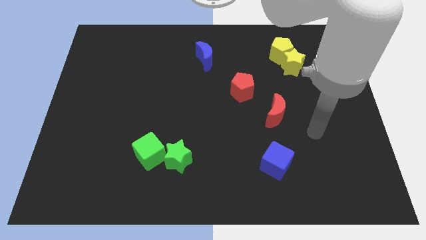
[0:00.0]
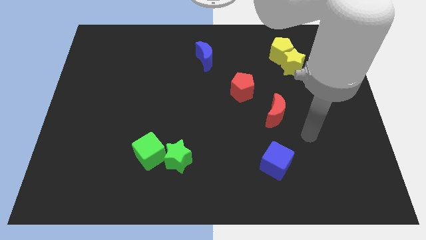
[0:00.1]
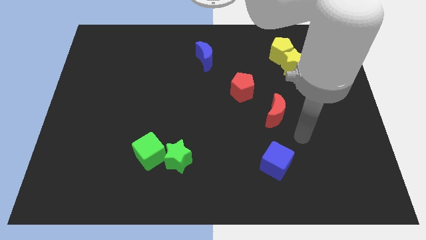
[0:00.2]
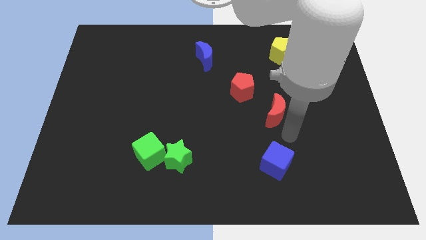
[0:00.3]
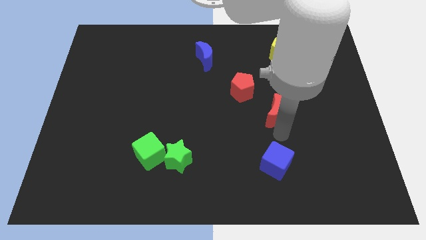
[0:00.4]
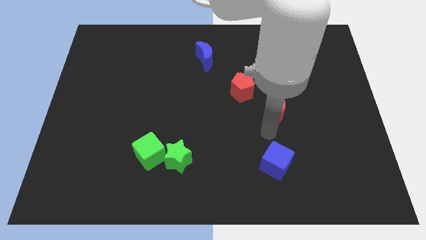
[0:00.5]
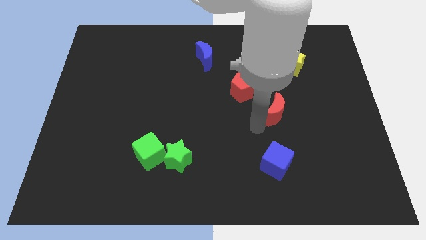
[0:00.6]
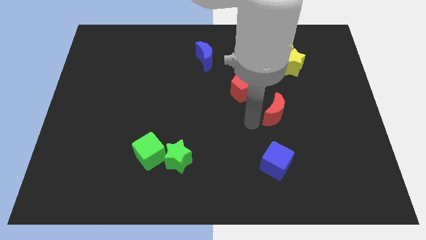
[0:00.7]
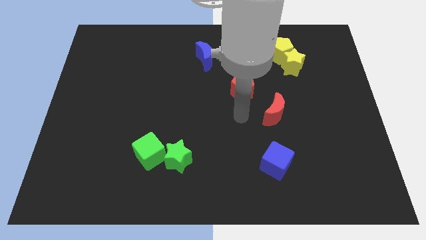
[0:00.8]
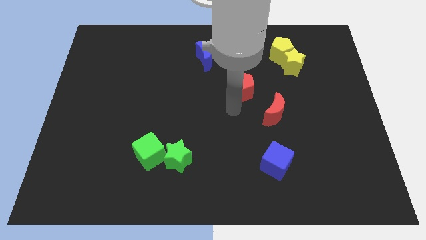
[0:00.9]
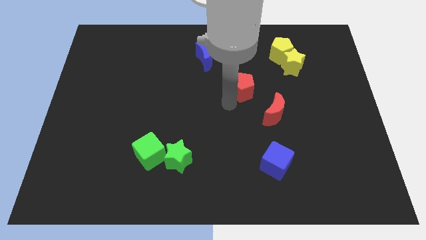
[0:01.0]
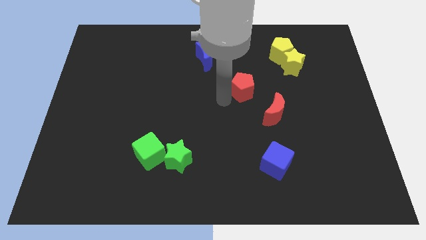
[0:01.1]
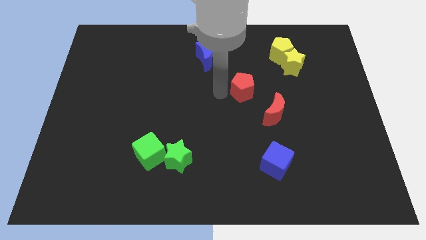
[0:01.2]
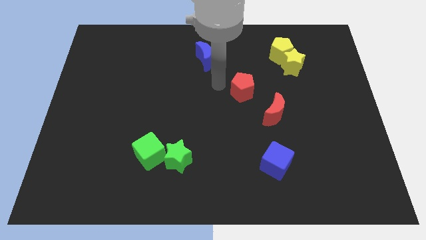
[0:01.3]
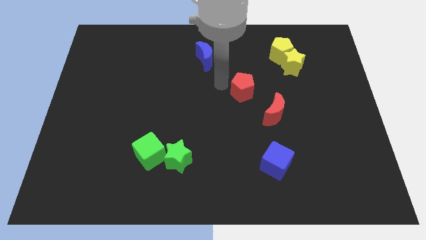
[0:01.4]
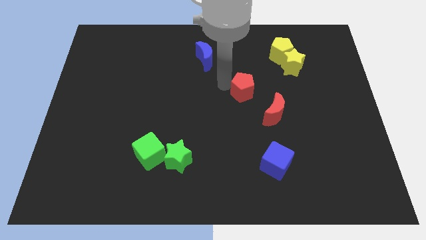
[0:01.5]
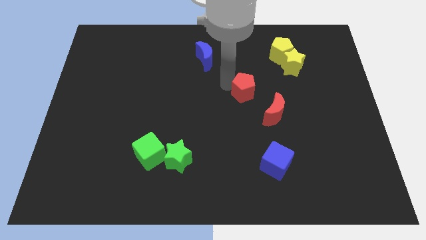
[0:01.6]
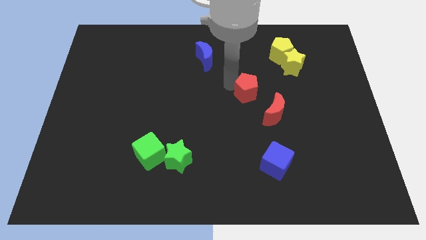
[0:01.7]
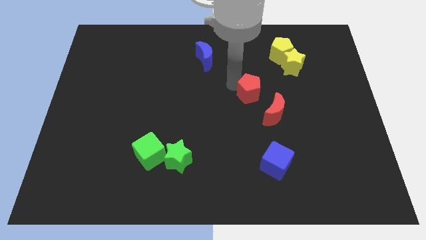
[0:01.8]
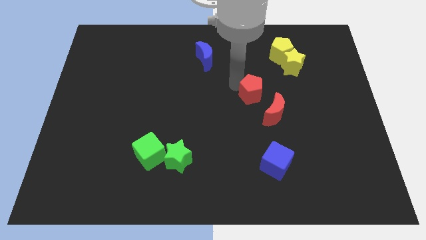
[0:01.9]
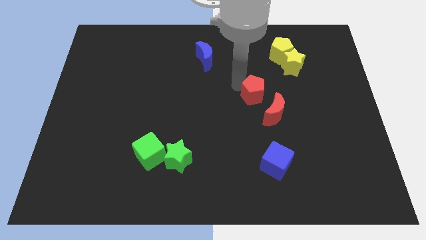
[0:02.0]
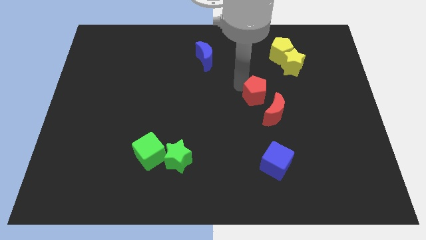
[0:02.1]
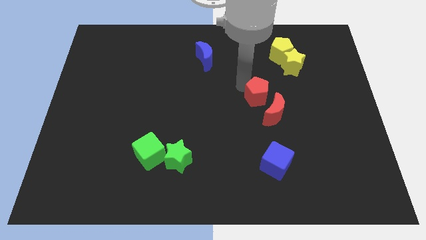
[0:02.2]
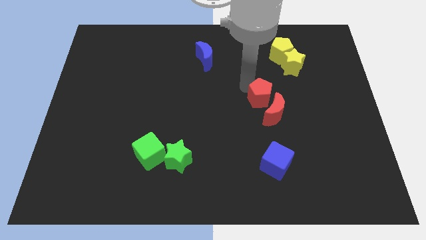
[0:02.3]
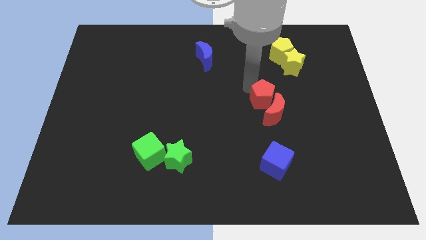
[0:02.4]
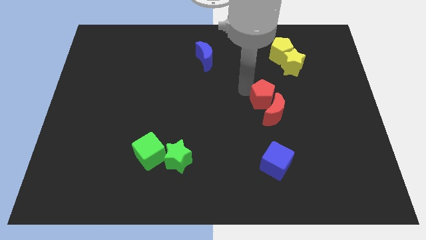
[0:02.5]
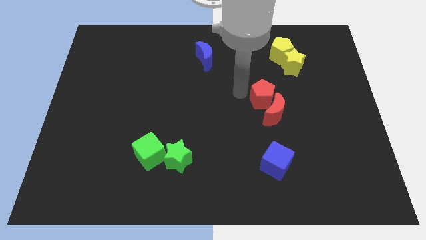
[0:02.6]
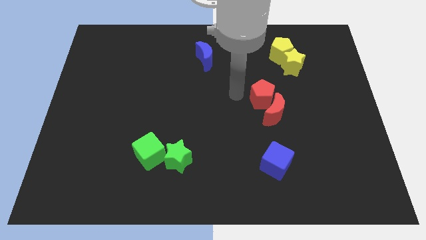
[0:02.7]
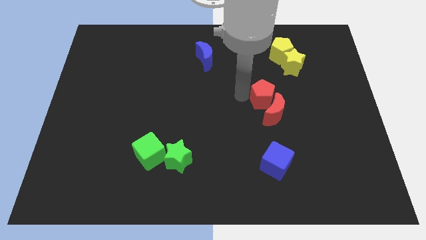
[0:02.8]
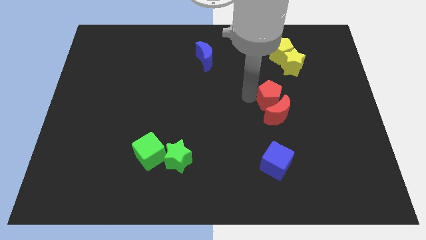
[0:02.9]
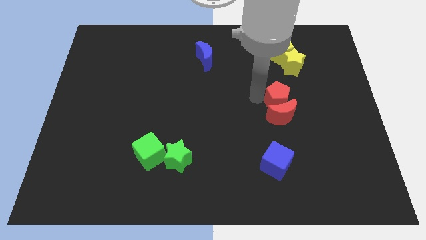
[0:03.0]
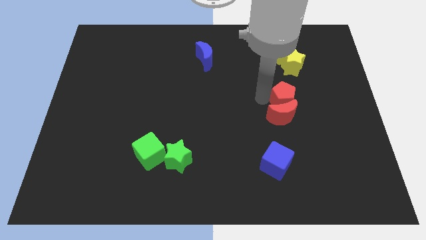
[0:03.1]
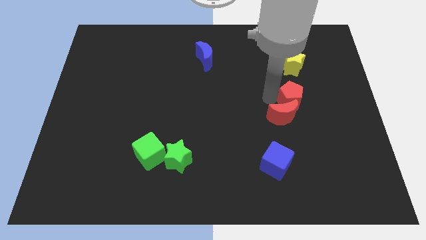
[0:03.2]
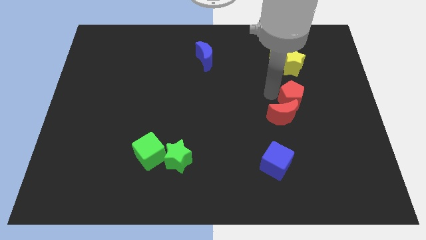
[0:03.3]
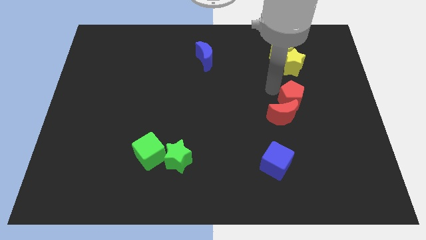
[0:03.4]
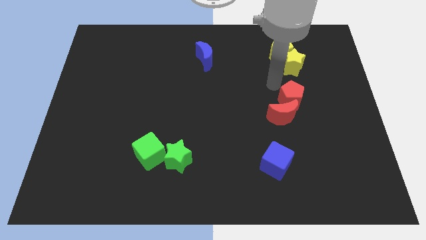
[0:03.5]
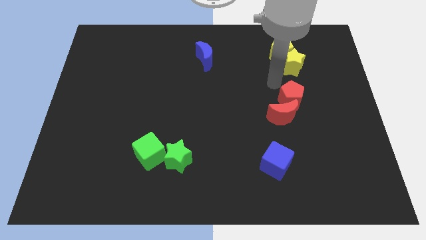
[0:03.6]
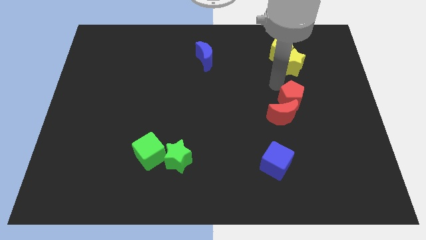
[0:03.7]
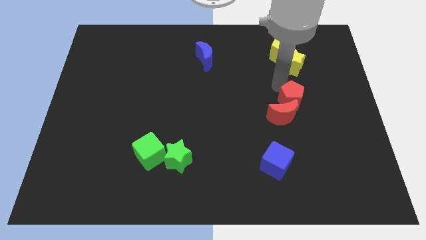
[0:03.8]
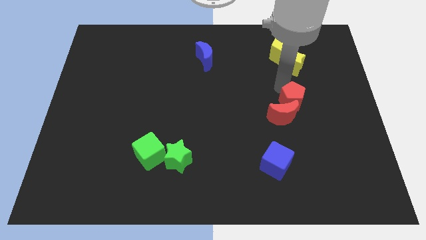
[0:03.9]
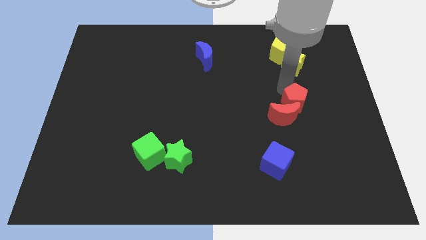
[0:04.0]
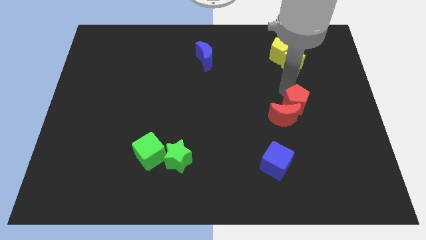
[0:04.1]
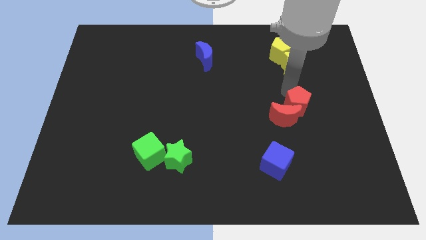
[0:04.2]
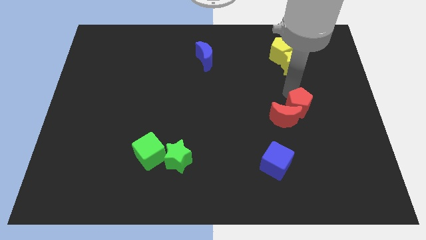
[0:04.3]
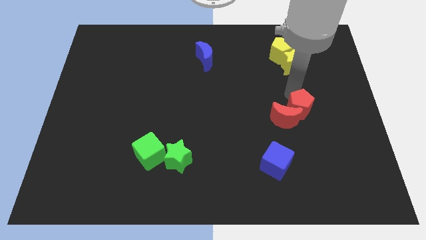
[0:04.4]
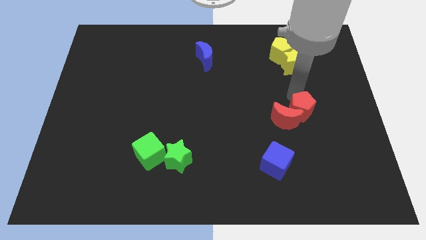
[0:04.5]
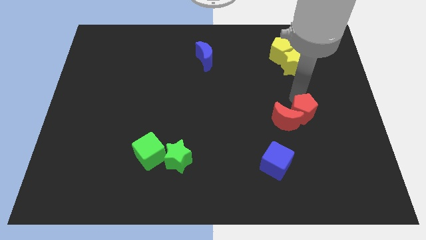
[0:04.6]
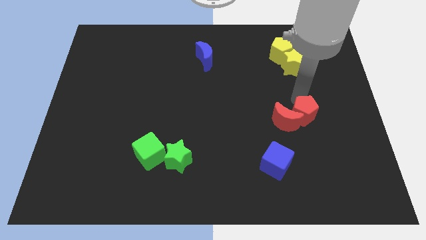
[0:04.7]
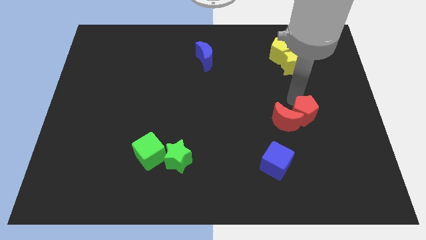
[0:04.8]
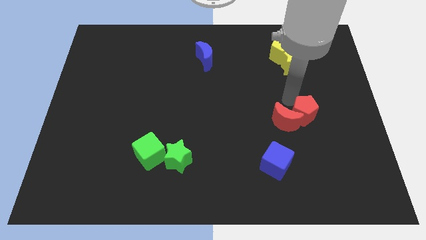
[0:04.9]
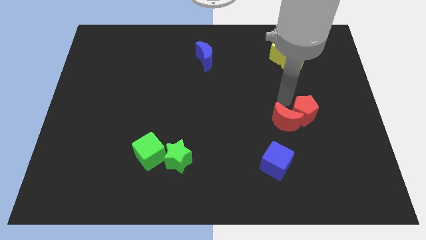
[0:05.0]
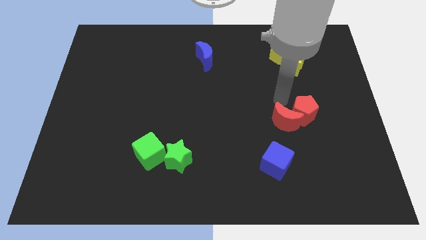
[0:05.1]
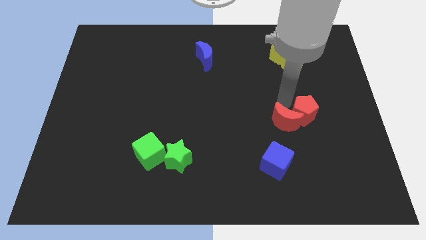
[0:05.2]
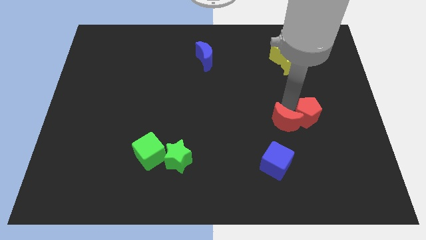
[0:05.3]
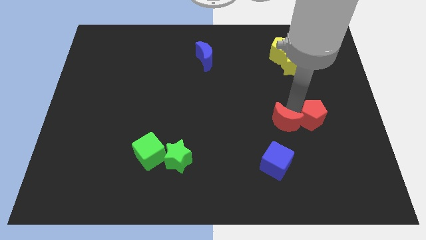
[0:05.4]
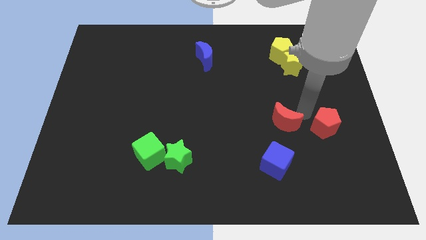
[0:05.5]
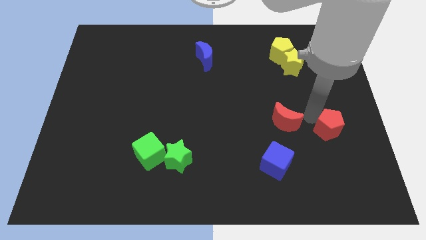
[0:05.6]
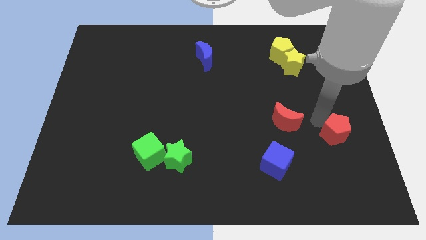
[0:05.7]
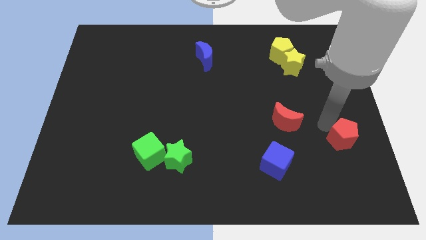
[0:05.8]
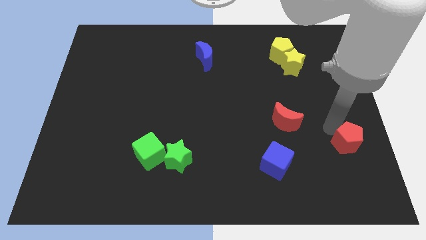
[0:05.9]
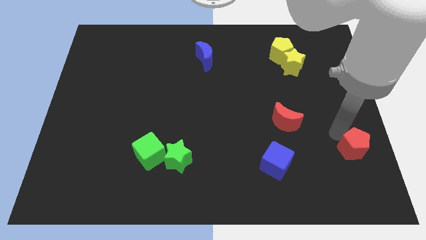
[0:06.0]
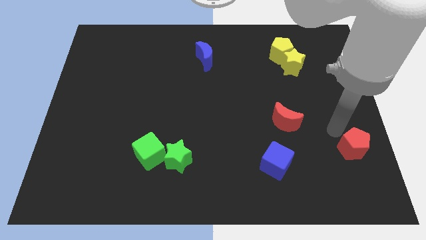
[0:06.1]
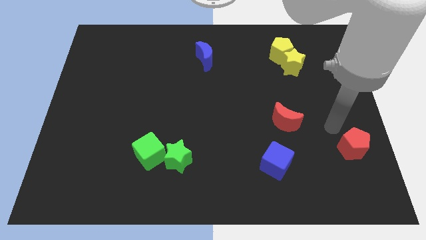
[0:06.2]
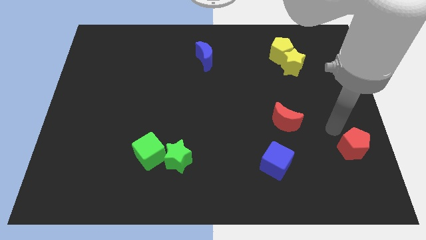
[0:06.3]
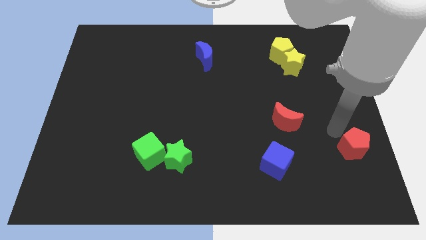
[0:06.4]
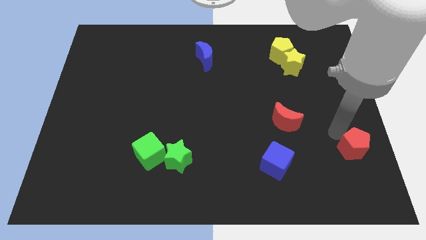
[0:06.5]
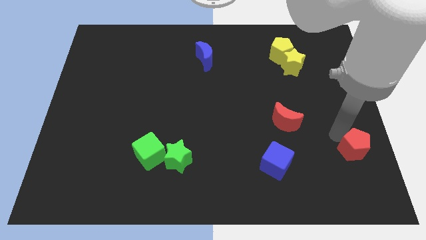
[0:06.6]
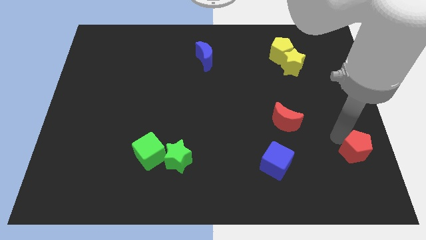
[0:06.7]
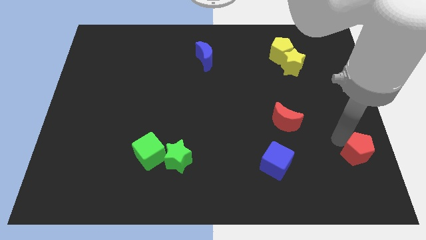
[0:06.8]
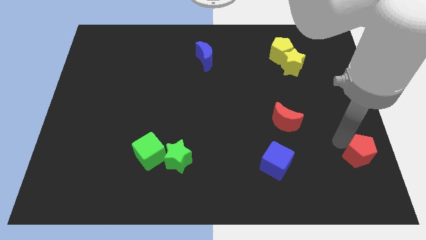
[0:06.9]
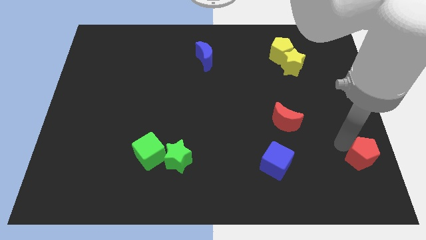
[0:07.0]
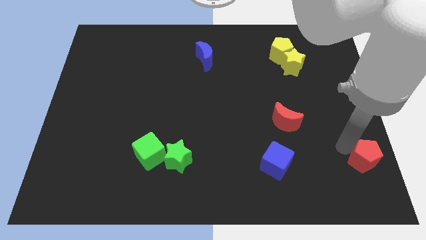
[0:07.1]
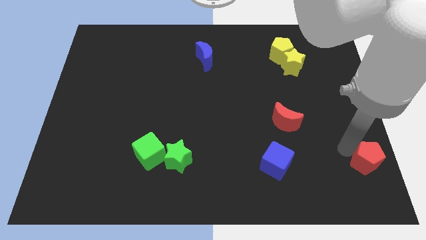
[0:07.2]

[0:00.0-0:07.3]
slide the red pentagon to the bottom right of the board
